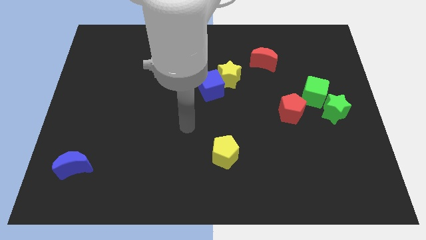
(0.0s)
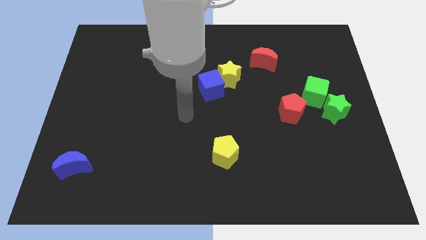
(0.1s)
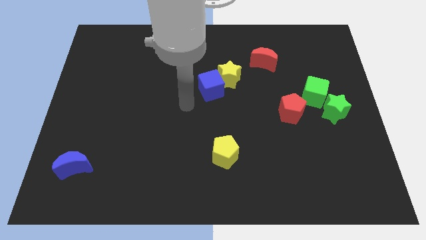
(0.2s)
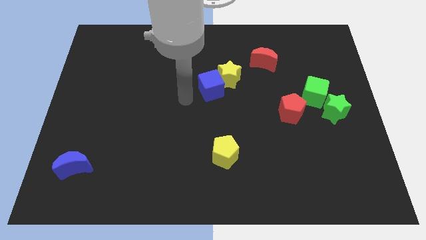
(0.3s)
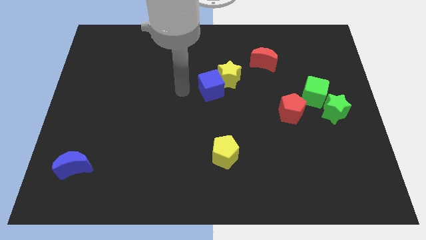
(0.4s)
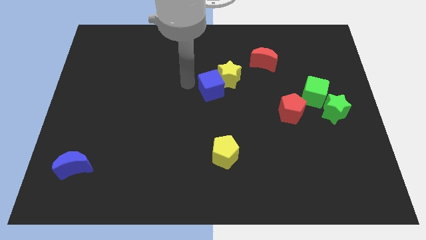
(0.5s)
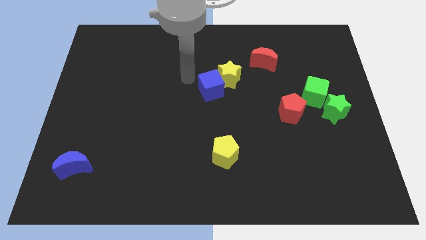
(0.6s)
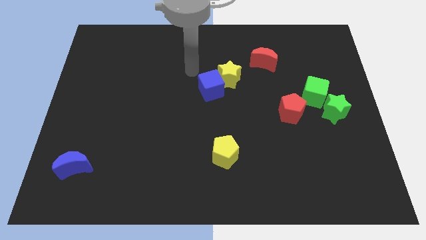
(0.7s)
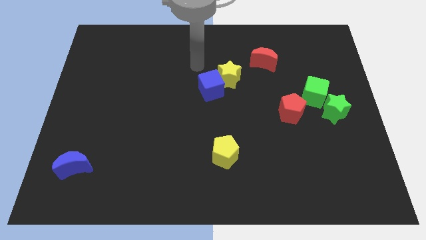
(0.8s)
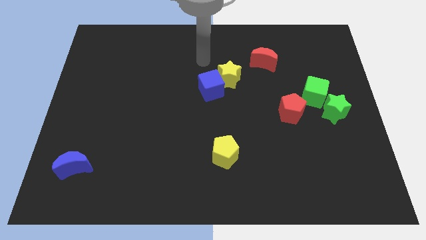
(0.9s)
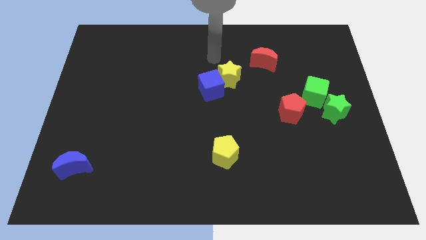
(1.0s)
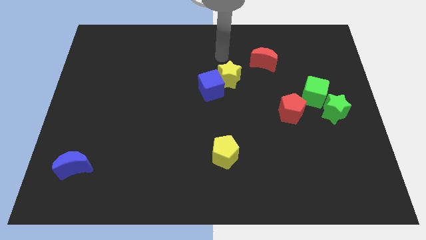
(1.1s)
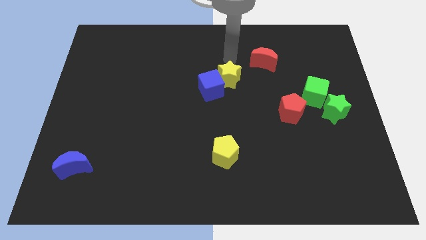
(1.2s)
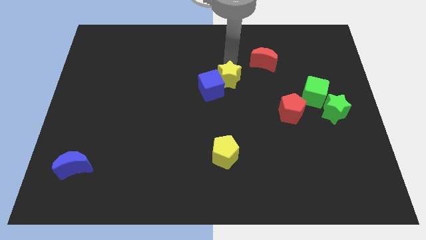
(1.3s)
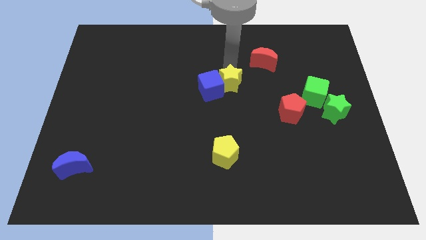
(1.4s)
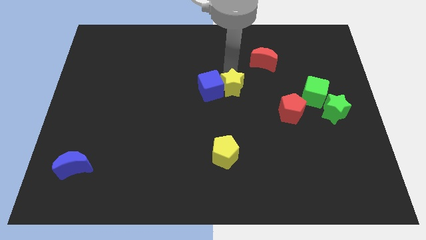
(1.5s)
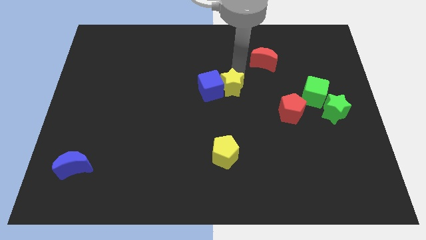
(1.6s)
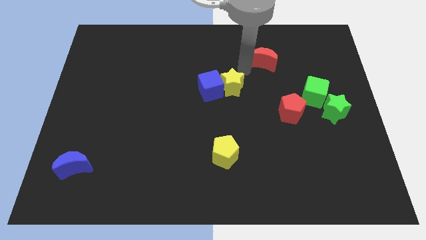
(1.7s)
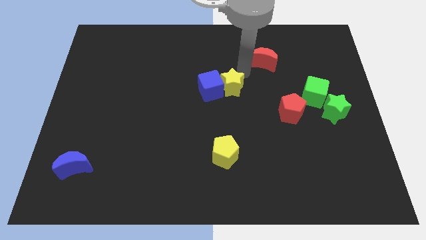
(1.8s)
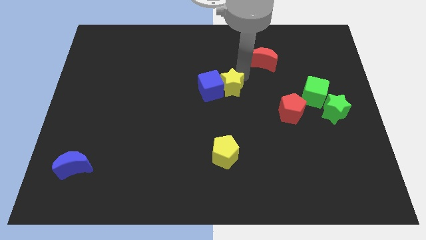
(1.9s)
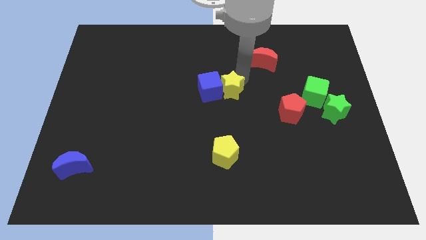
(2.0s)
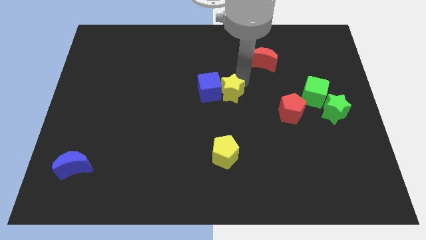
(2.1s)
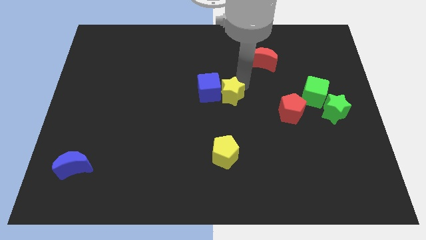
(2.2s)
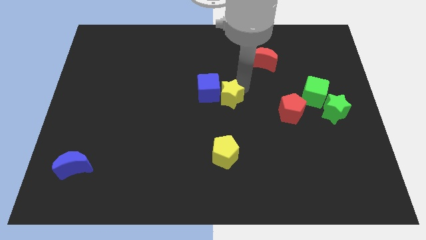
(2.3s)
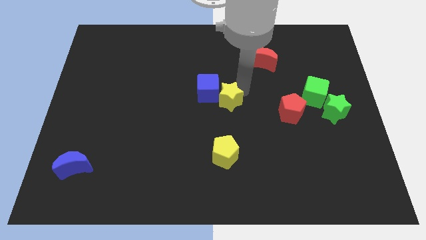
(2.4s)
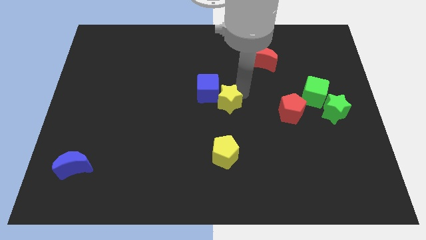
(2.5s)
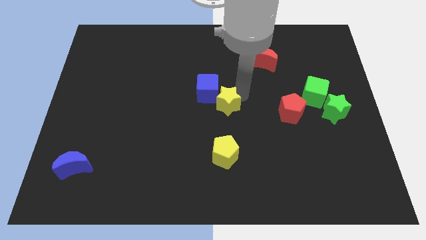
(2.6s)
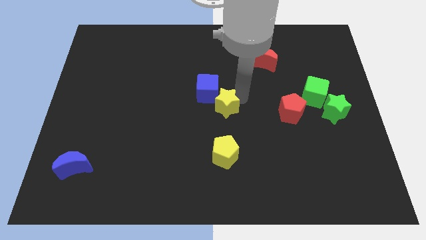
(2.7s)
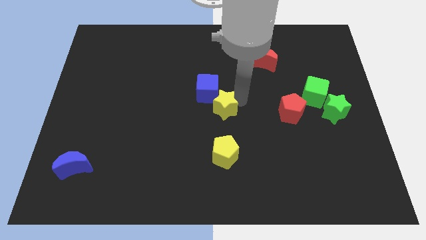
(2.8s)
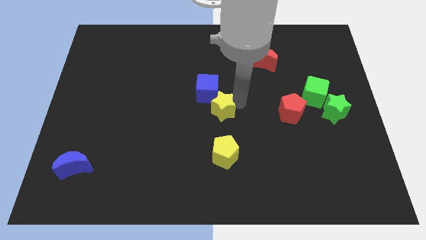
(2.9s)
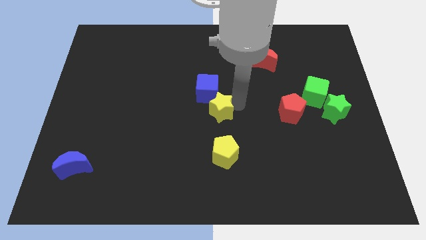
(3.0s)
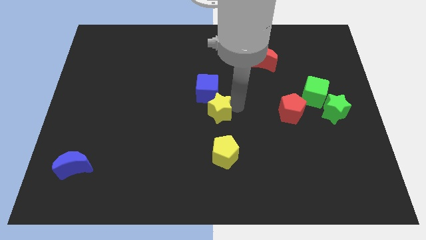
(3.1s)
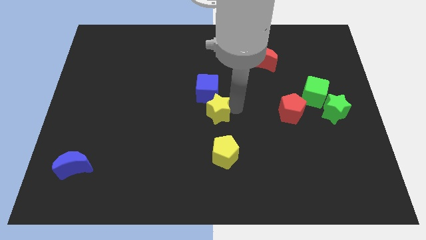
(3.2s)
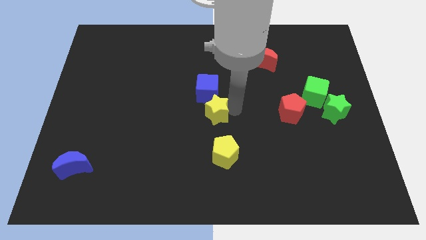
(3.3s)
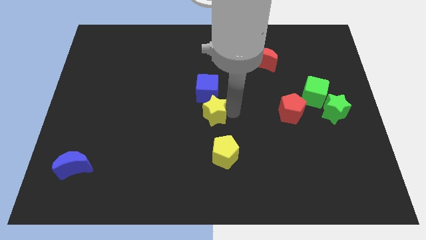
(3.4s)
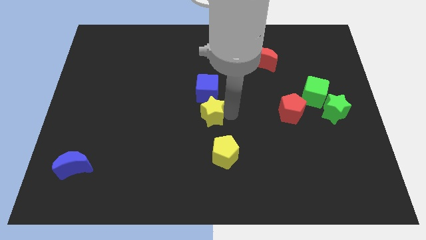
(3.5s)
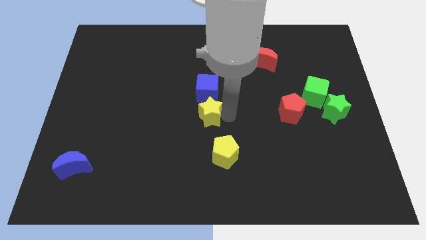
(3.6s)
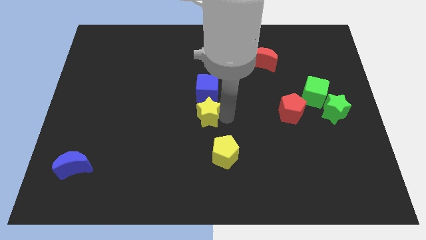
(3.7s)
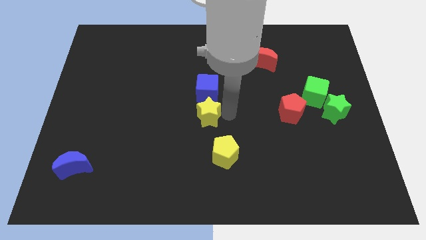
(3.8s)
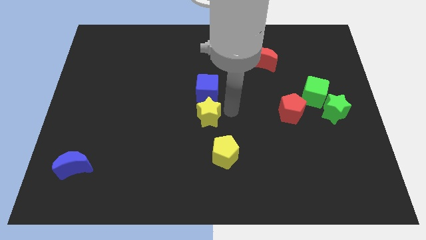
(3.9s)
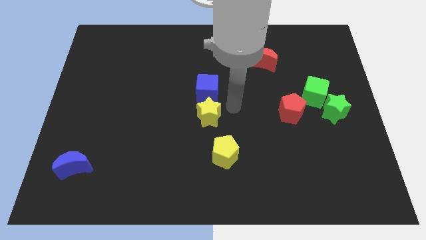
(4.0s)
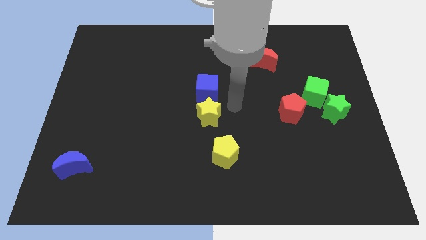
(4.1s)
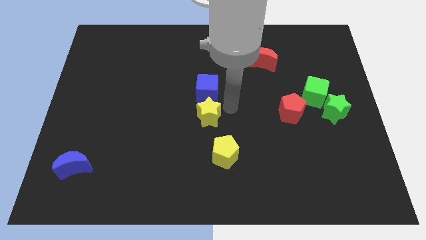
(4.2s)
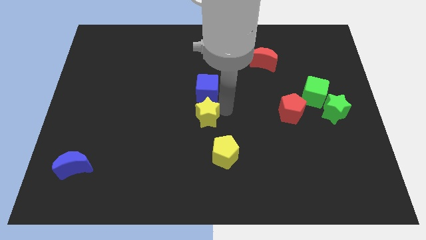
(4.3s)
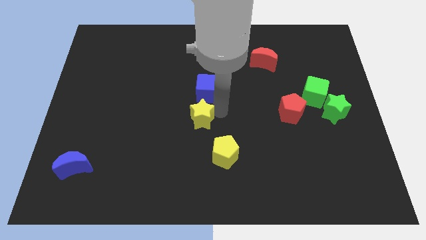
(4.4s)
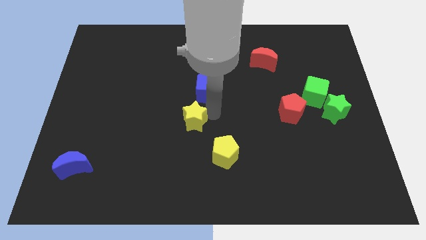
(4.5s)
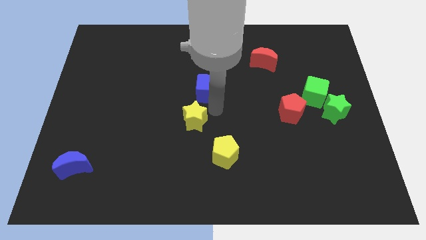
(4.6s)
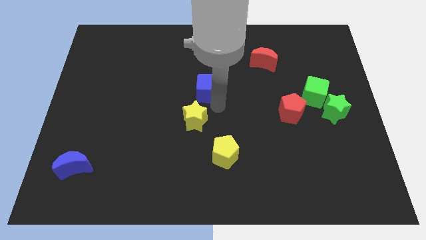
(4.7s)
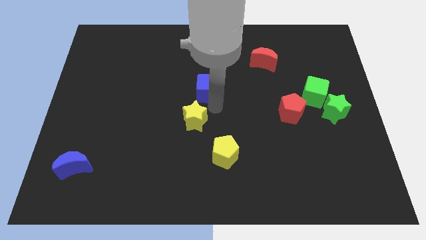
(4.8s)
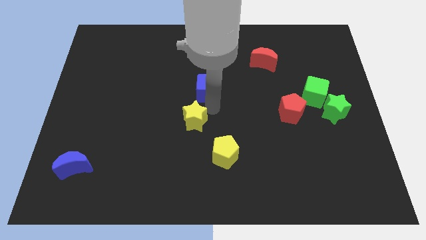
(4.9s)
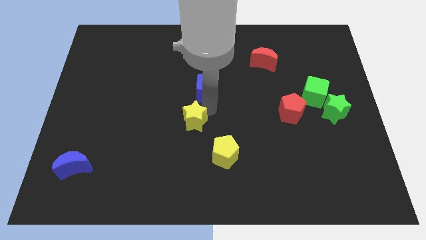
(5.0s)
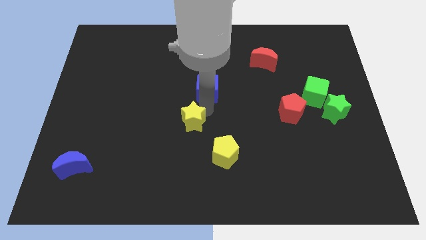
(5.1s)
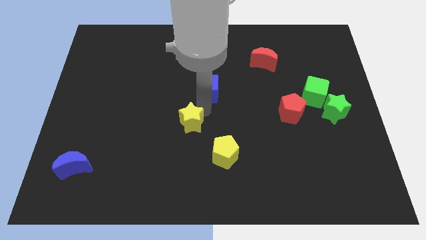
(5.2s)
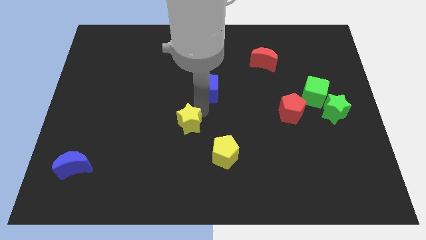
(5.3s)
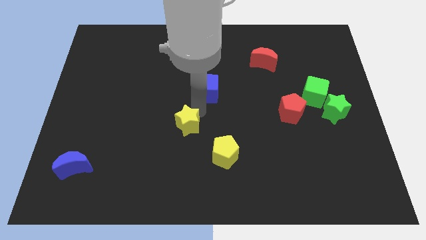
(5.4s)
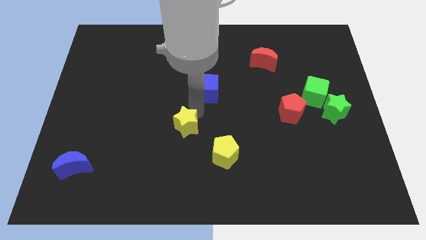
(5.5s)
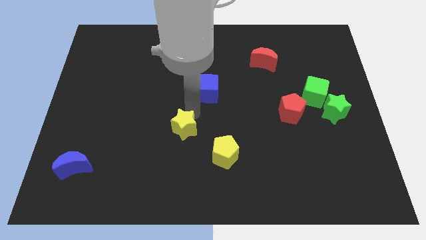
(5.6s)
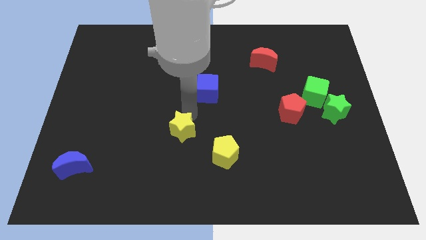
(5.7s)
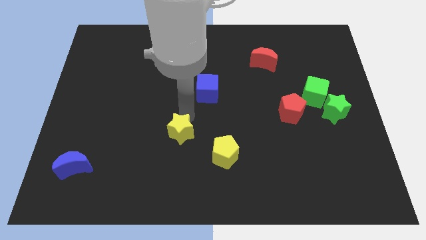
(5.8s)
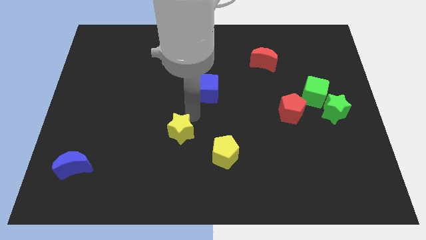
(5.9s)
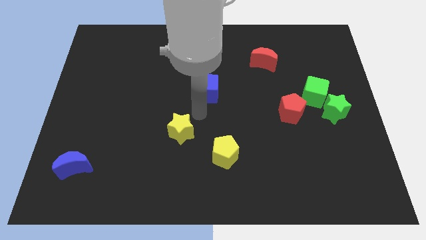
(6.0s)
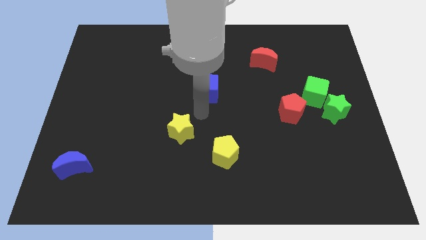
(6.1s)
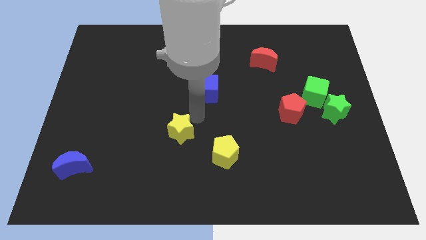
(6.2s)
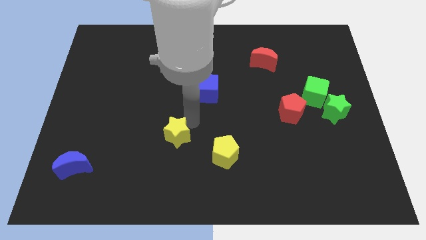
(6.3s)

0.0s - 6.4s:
slide the yellow star down and to the left

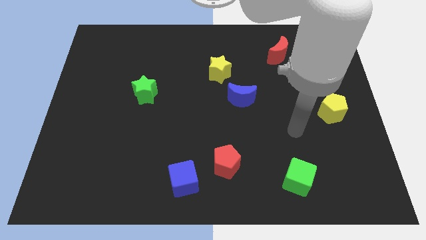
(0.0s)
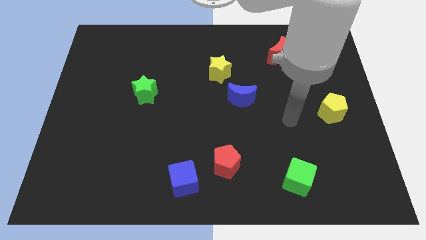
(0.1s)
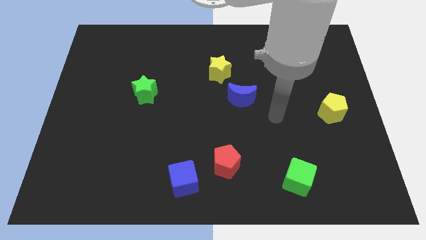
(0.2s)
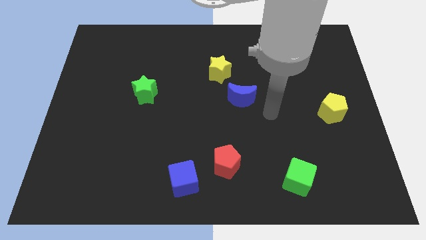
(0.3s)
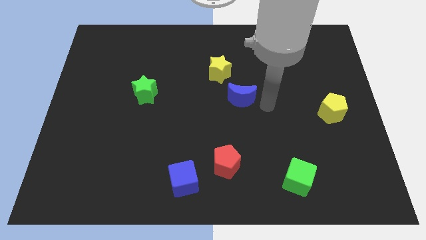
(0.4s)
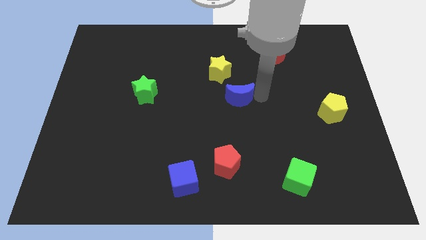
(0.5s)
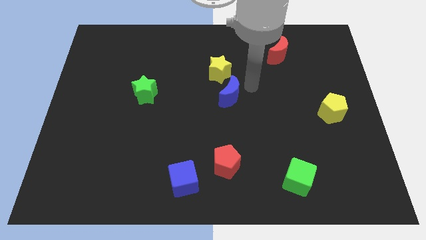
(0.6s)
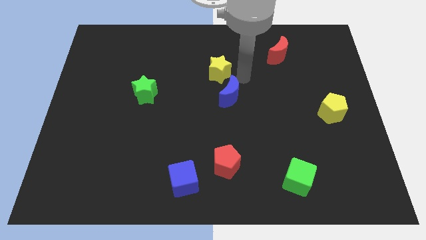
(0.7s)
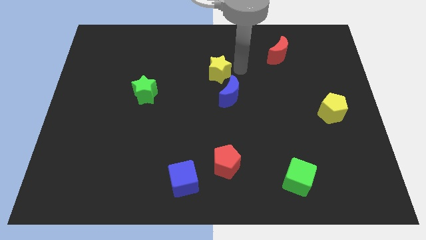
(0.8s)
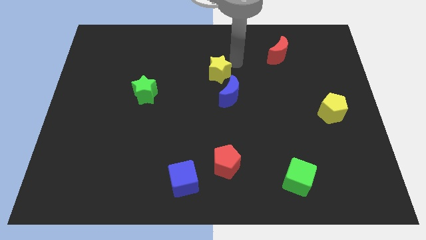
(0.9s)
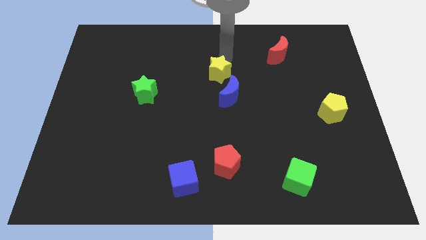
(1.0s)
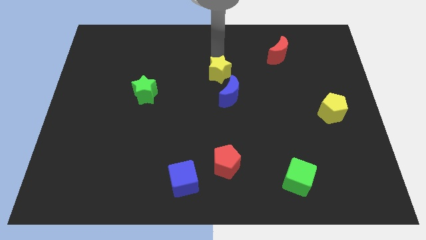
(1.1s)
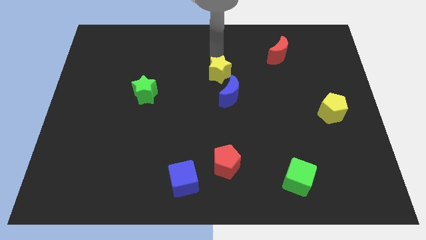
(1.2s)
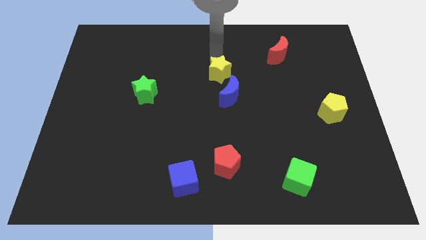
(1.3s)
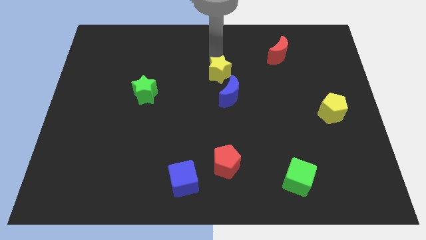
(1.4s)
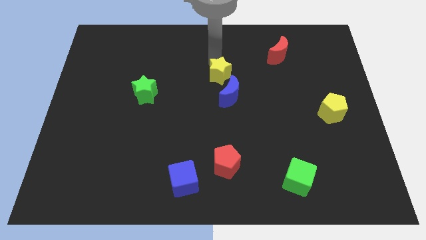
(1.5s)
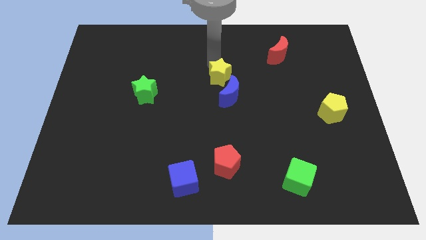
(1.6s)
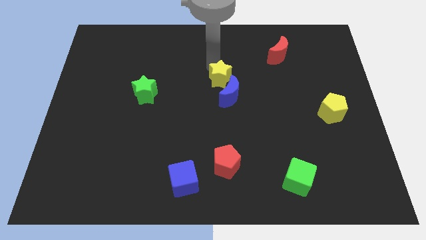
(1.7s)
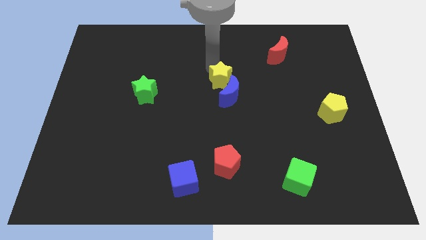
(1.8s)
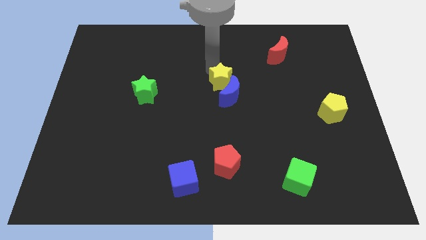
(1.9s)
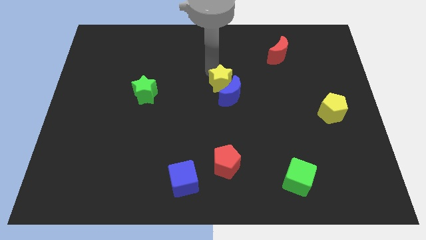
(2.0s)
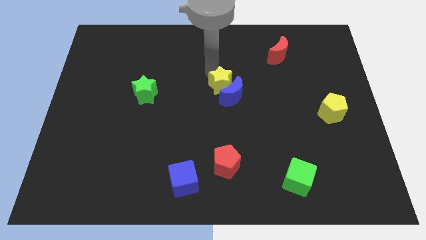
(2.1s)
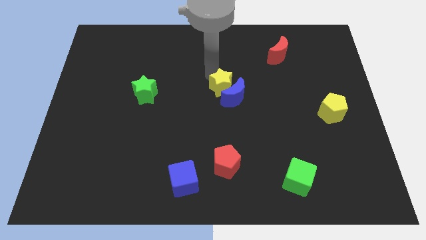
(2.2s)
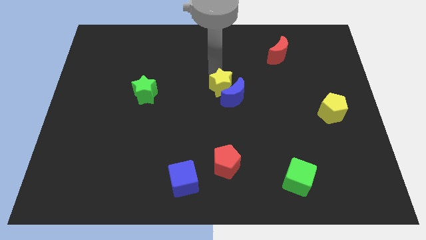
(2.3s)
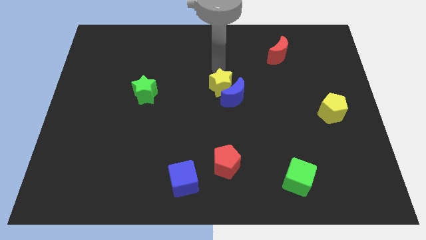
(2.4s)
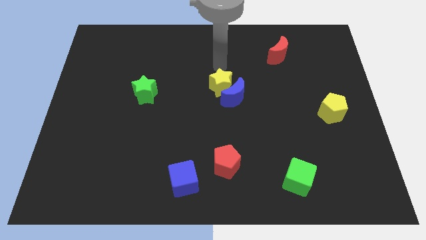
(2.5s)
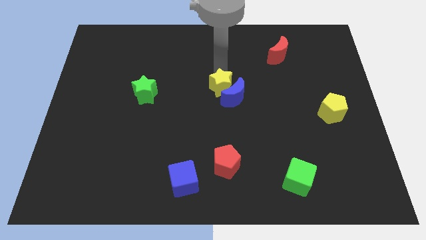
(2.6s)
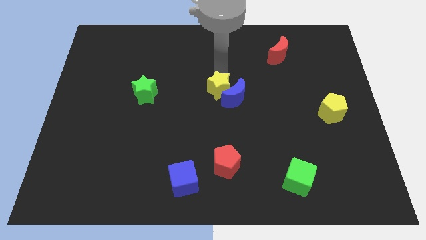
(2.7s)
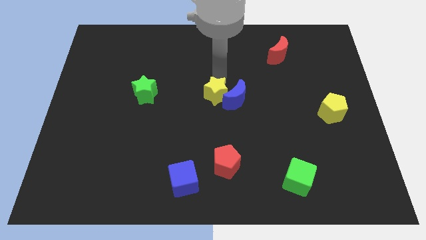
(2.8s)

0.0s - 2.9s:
push the yellow star a little downwards
